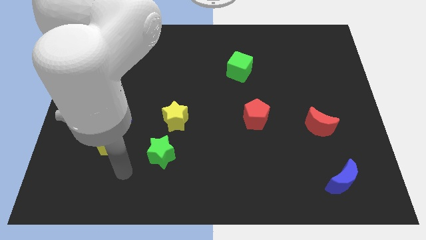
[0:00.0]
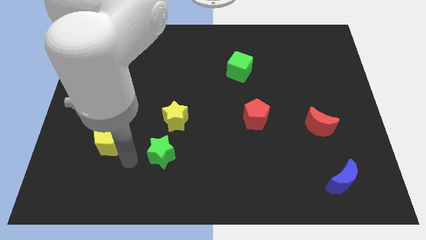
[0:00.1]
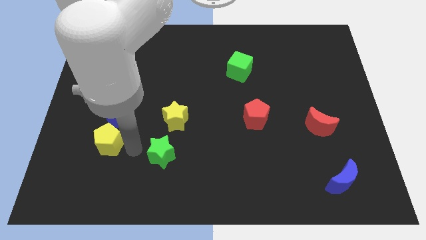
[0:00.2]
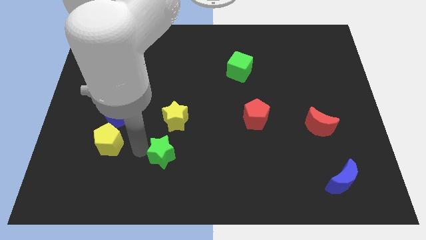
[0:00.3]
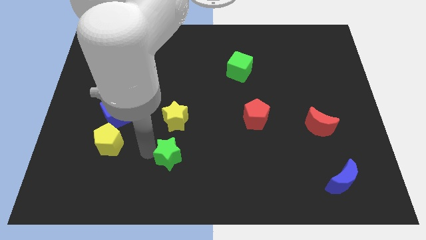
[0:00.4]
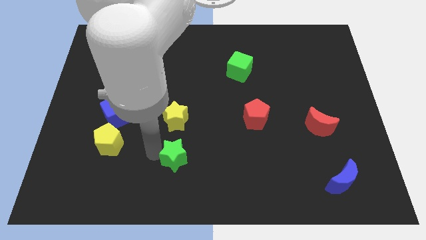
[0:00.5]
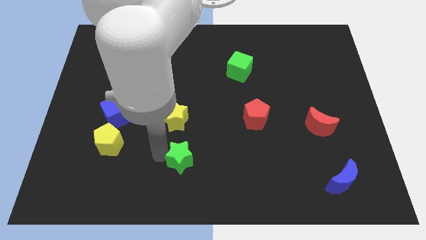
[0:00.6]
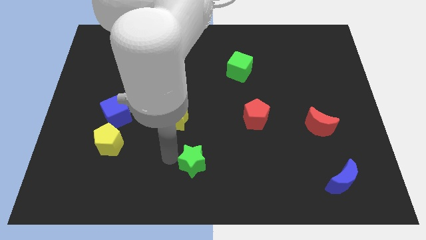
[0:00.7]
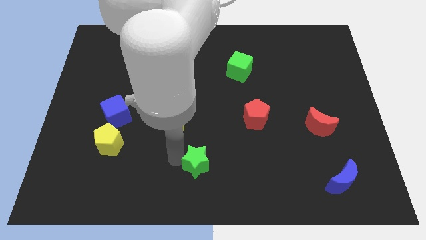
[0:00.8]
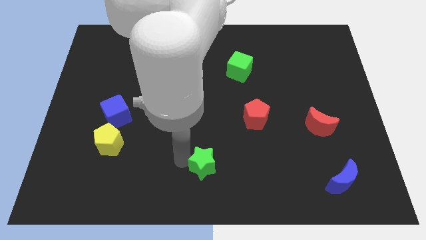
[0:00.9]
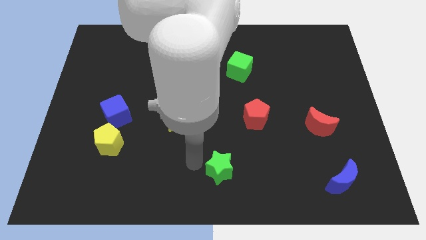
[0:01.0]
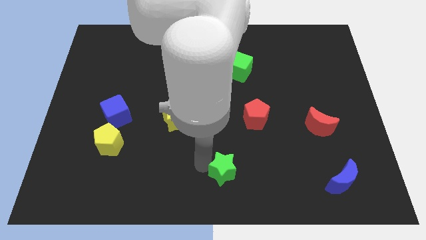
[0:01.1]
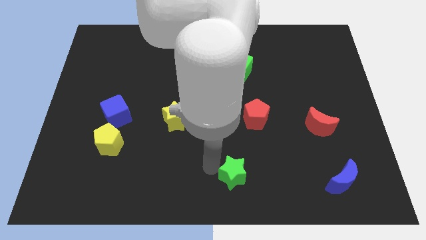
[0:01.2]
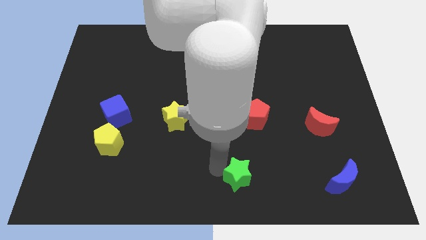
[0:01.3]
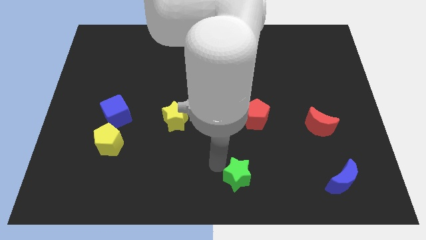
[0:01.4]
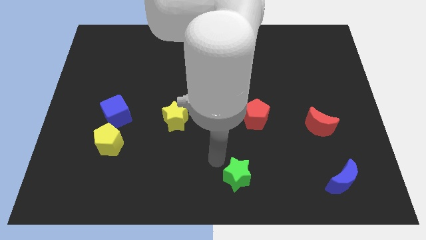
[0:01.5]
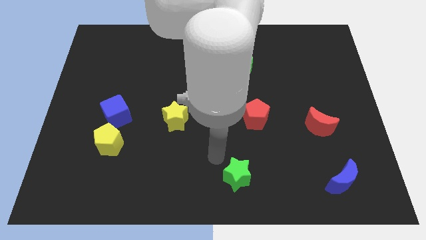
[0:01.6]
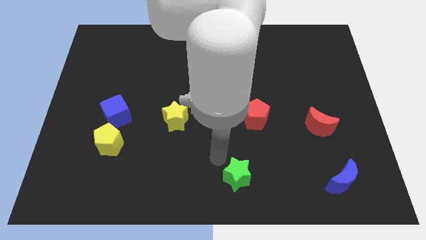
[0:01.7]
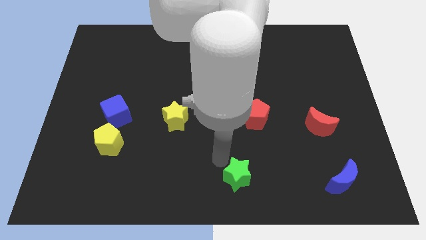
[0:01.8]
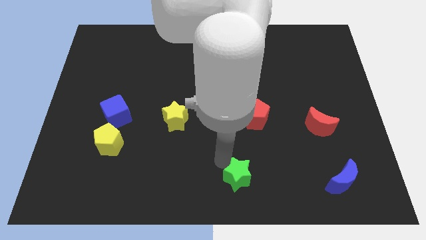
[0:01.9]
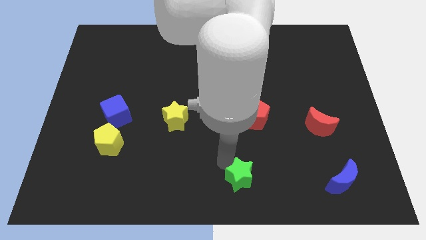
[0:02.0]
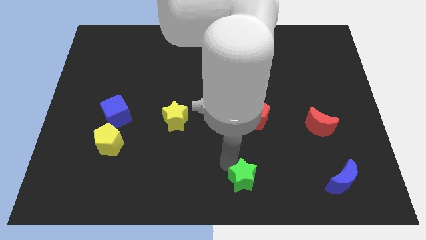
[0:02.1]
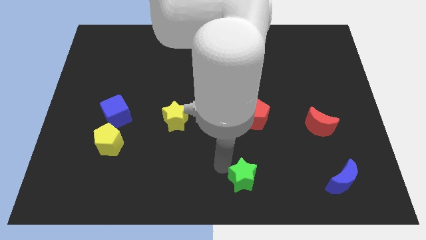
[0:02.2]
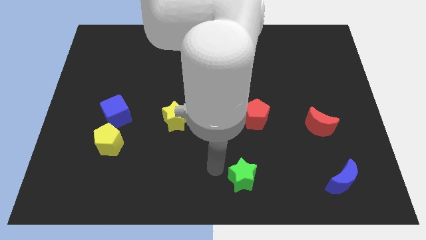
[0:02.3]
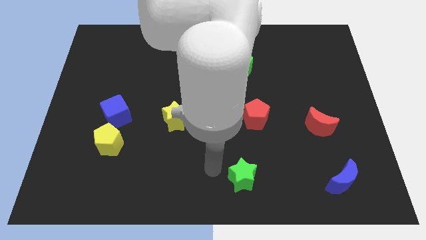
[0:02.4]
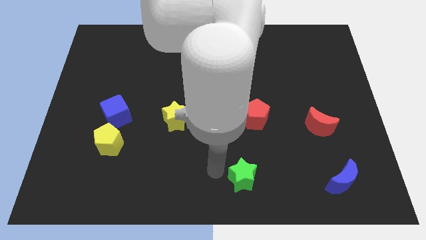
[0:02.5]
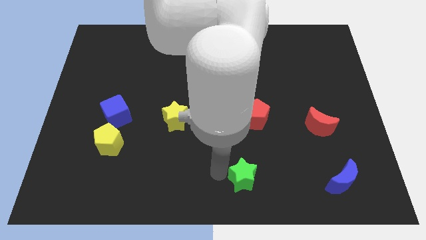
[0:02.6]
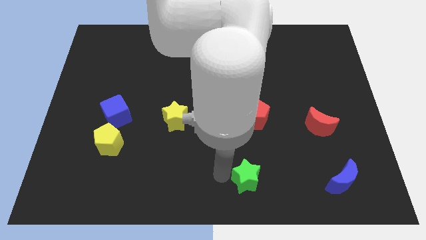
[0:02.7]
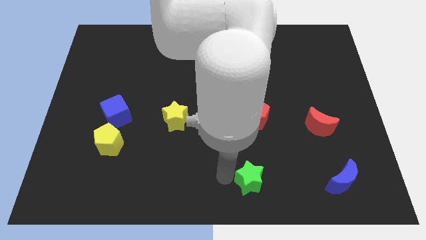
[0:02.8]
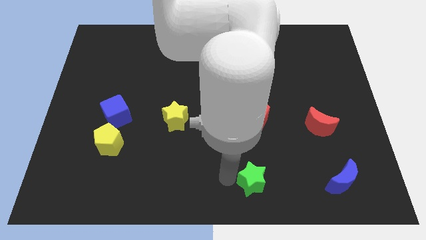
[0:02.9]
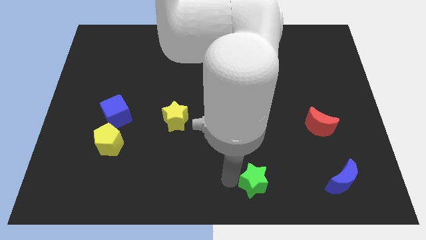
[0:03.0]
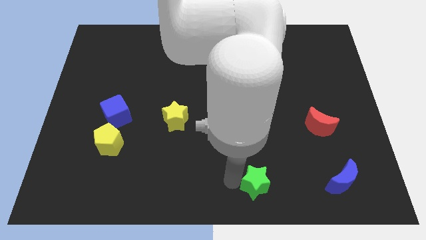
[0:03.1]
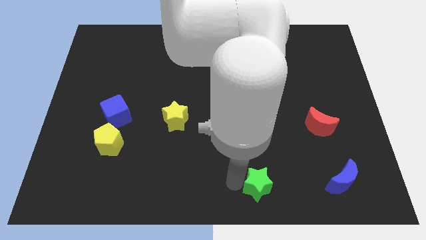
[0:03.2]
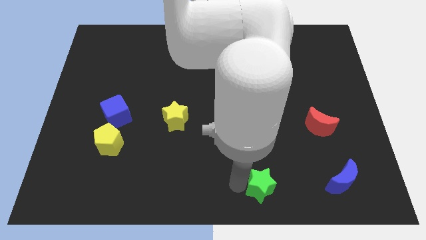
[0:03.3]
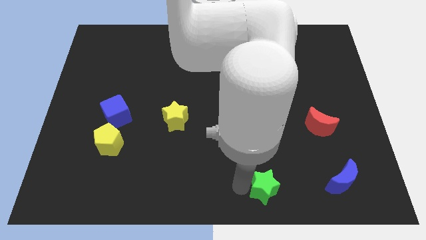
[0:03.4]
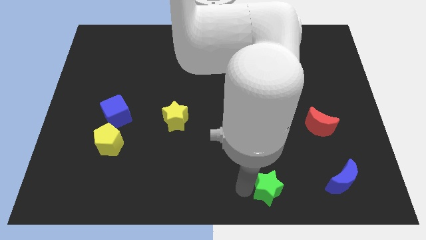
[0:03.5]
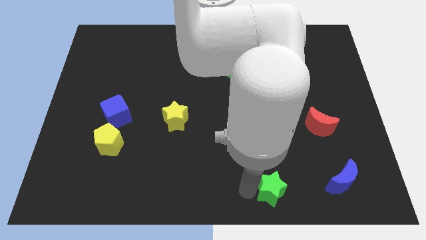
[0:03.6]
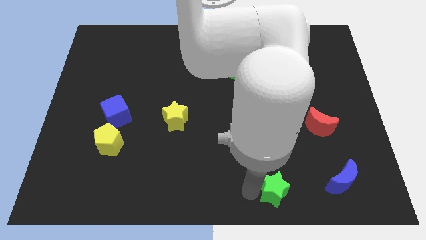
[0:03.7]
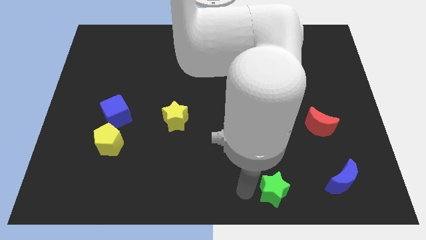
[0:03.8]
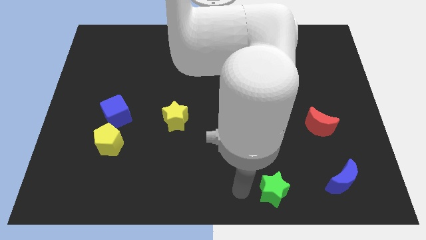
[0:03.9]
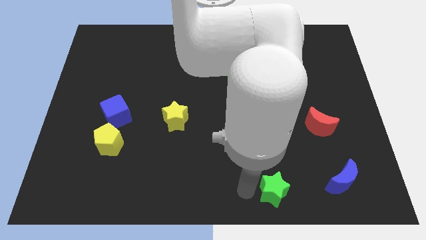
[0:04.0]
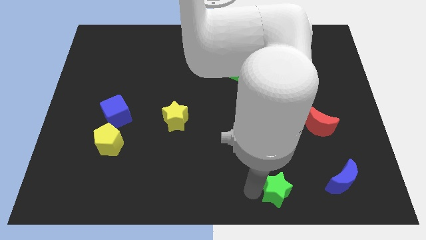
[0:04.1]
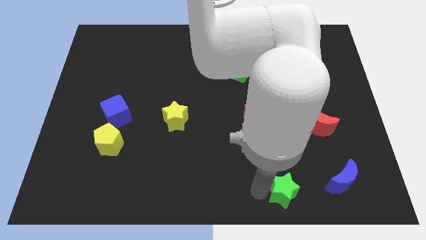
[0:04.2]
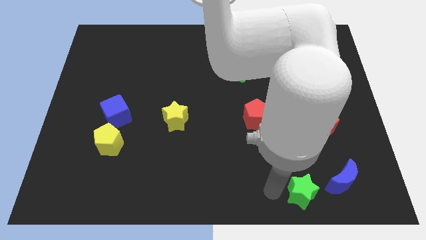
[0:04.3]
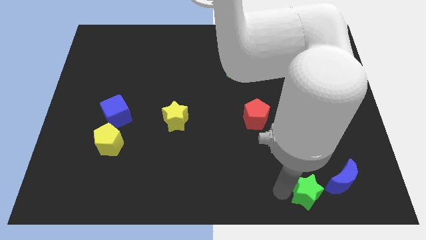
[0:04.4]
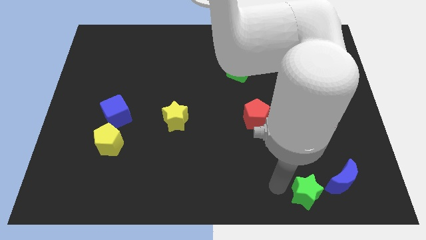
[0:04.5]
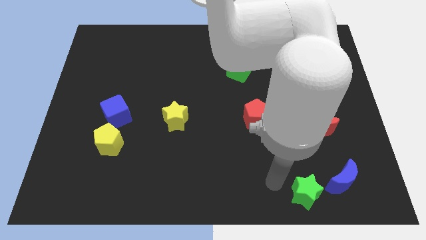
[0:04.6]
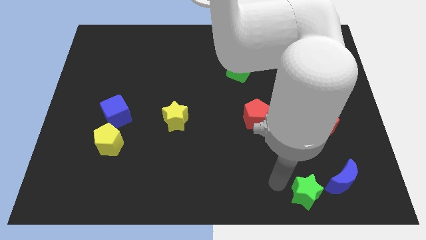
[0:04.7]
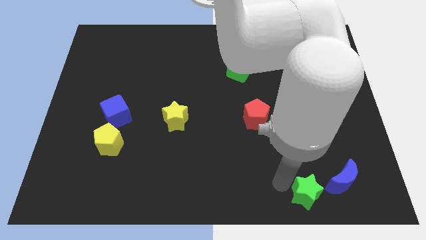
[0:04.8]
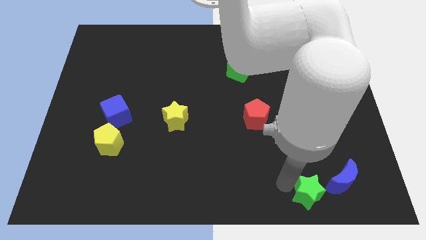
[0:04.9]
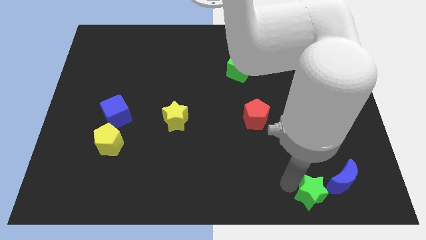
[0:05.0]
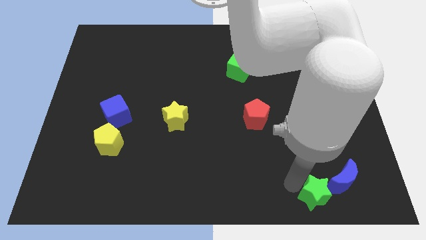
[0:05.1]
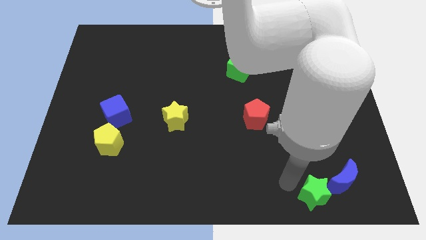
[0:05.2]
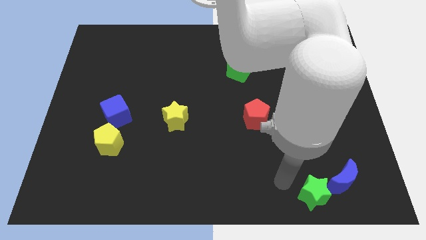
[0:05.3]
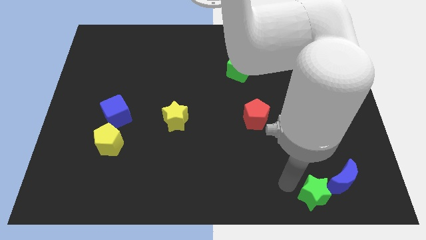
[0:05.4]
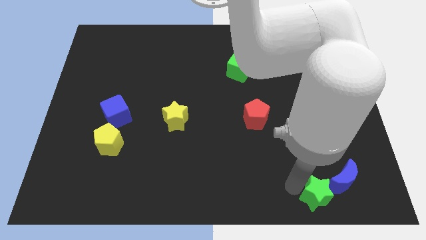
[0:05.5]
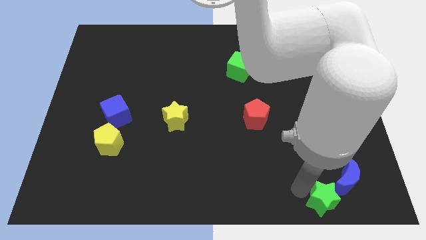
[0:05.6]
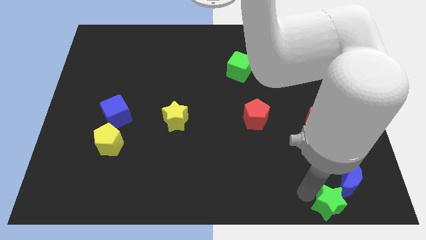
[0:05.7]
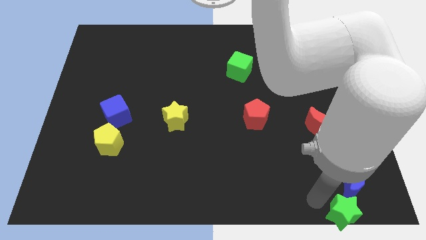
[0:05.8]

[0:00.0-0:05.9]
slide the green star to the bottom right corner

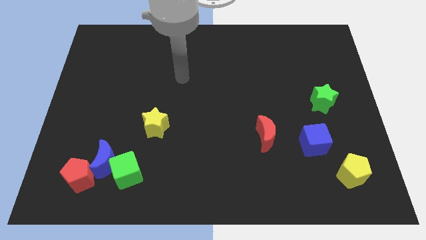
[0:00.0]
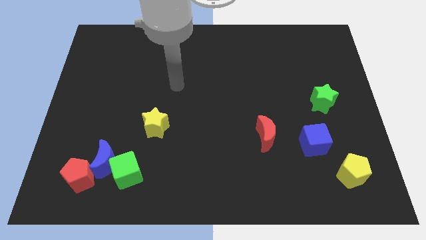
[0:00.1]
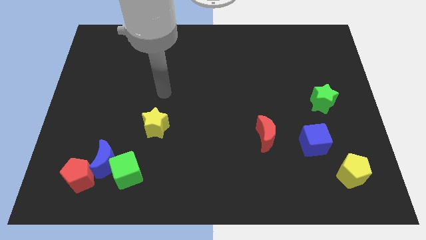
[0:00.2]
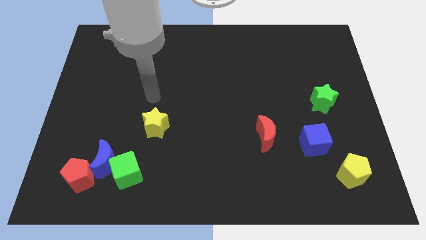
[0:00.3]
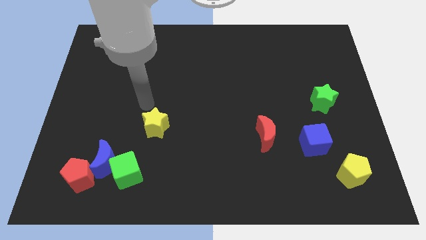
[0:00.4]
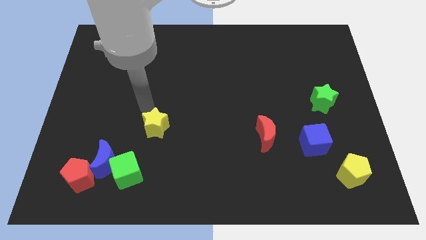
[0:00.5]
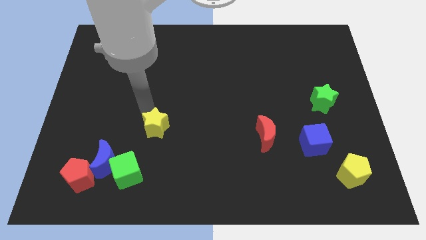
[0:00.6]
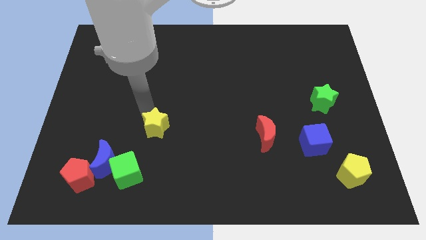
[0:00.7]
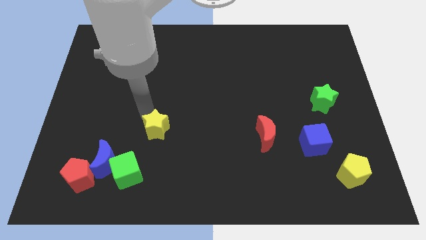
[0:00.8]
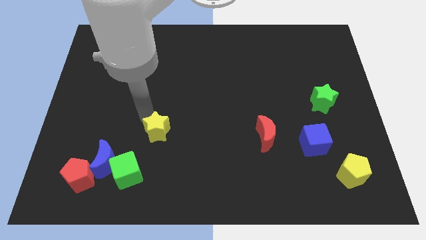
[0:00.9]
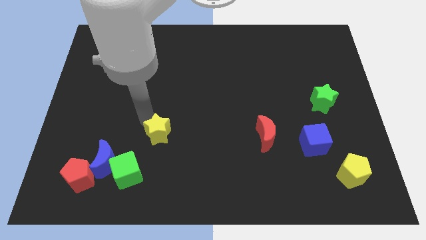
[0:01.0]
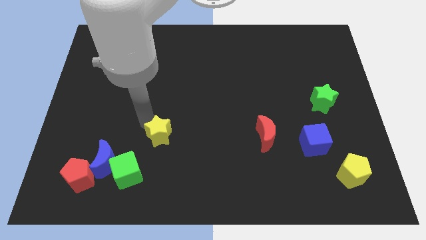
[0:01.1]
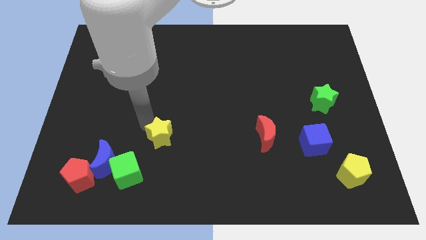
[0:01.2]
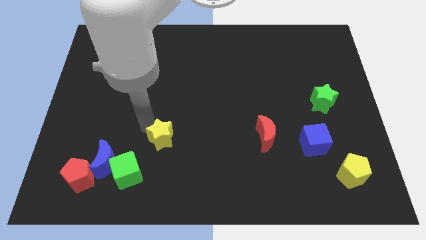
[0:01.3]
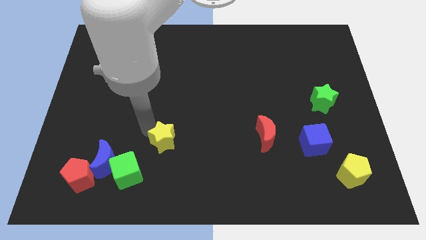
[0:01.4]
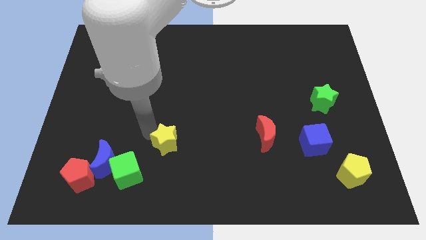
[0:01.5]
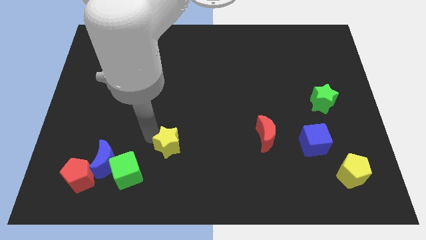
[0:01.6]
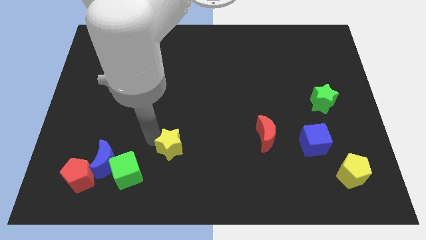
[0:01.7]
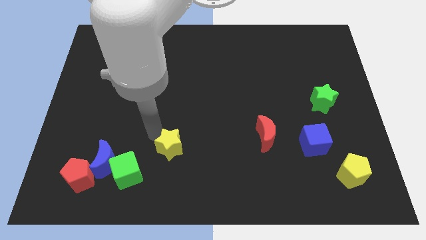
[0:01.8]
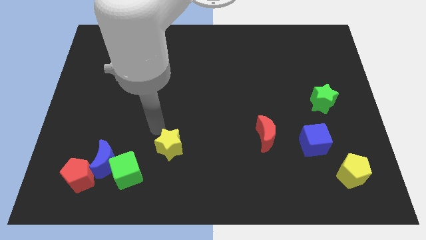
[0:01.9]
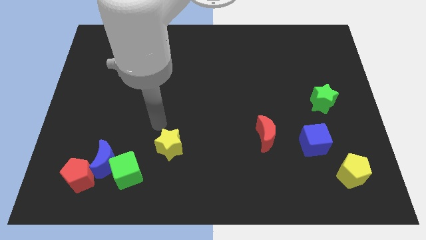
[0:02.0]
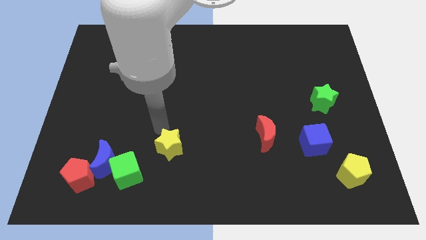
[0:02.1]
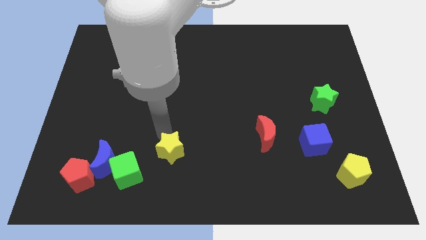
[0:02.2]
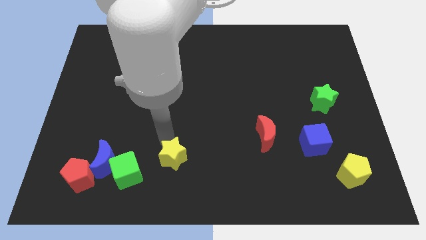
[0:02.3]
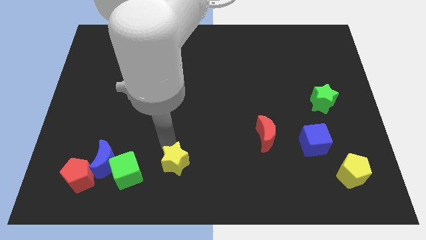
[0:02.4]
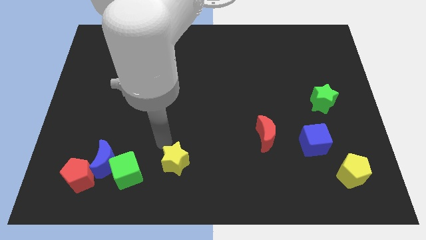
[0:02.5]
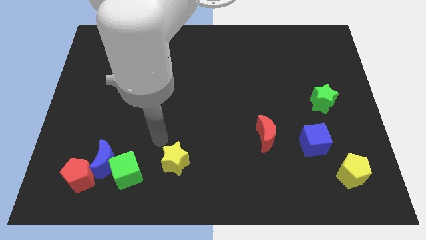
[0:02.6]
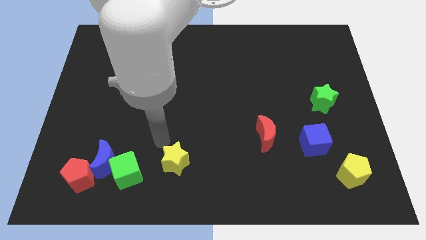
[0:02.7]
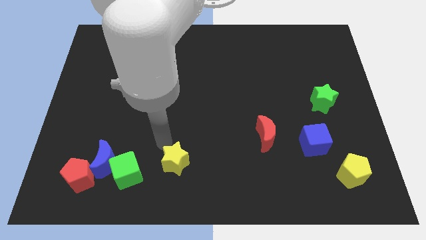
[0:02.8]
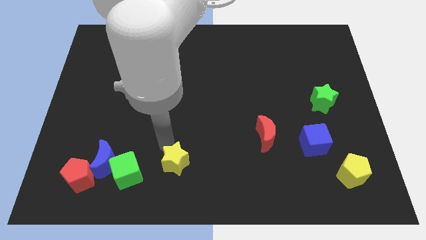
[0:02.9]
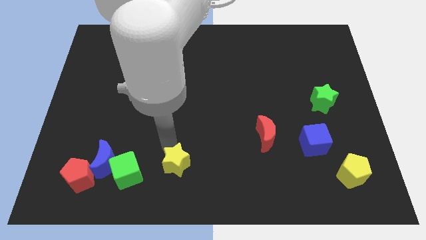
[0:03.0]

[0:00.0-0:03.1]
push the yellow star to the bottom
